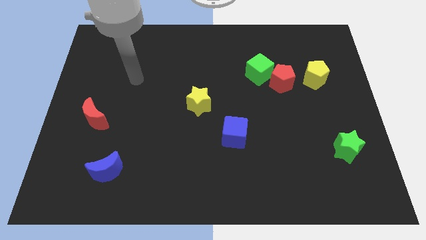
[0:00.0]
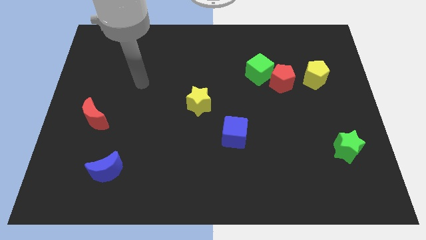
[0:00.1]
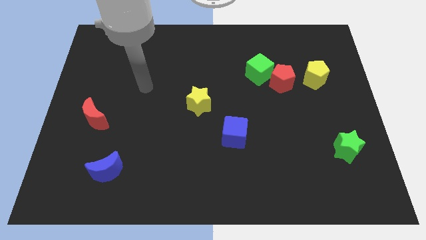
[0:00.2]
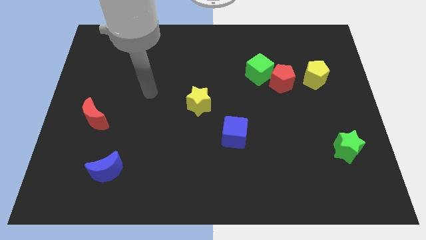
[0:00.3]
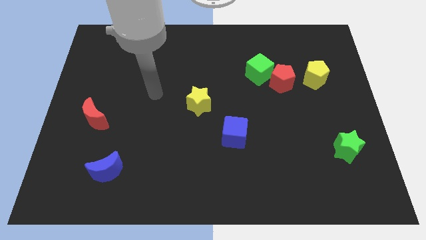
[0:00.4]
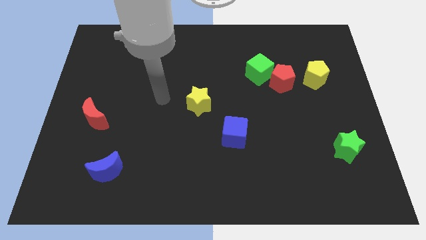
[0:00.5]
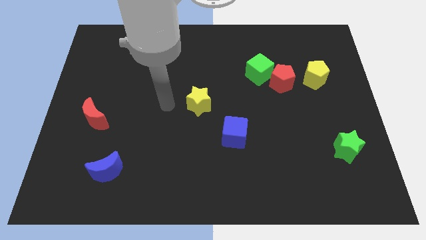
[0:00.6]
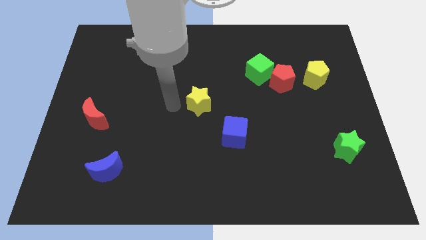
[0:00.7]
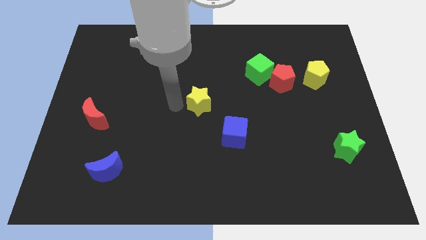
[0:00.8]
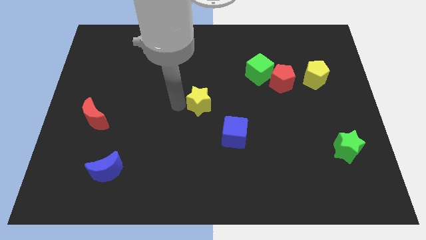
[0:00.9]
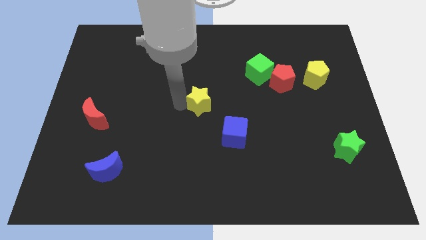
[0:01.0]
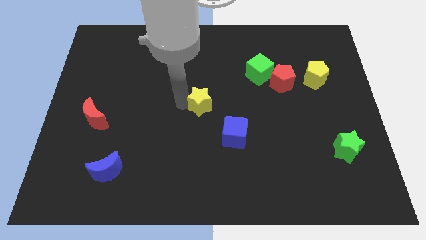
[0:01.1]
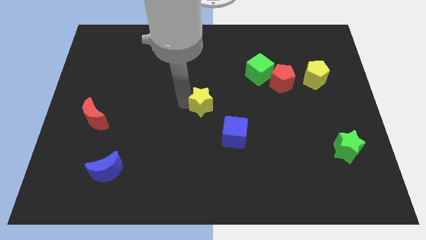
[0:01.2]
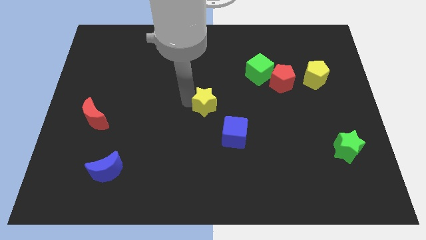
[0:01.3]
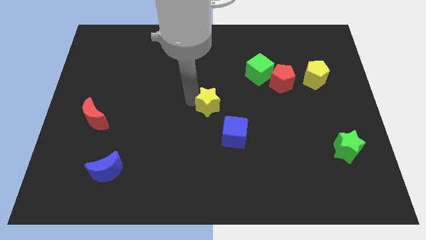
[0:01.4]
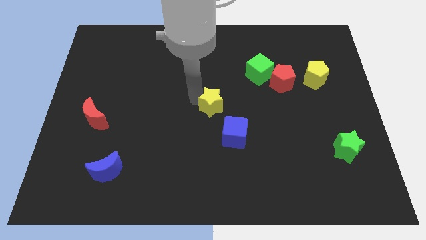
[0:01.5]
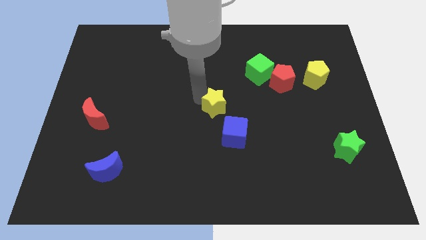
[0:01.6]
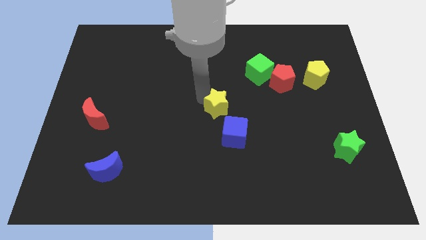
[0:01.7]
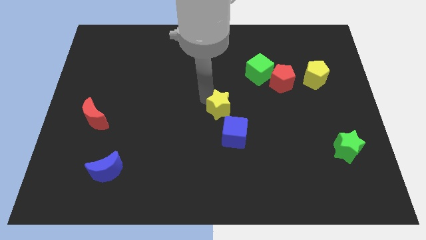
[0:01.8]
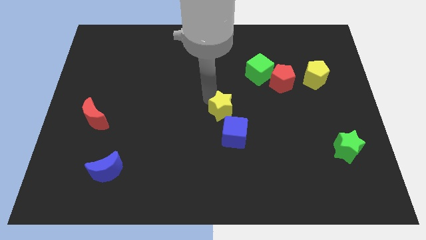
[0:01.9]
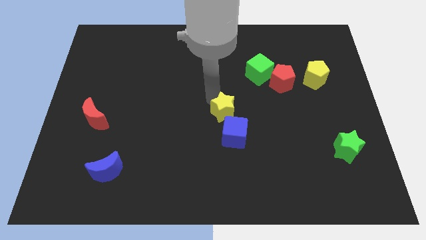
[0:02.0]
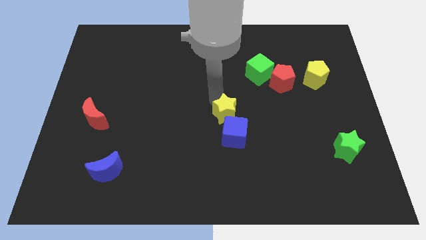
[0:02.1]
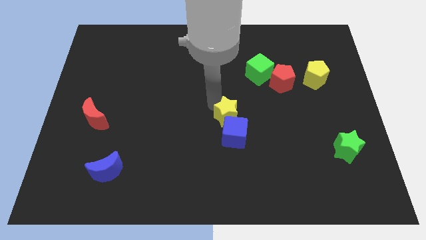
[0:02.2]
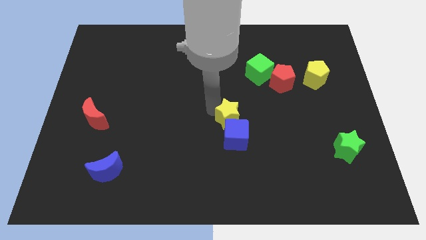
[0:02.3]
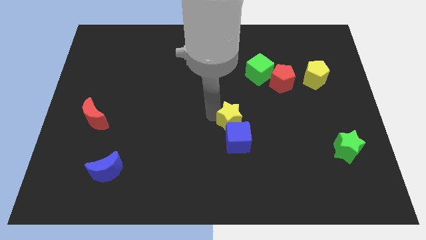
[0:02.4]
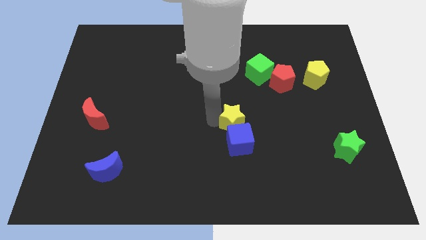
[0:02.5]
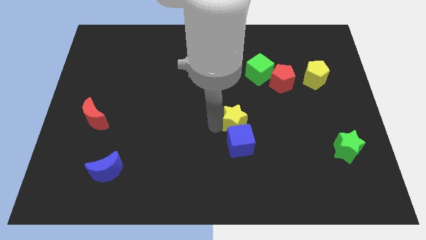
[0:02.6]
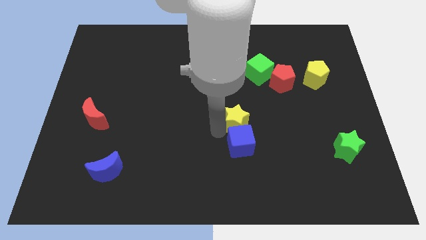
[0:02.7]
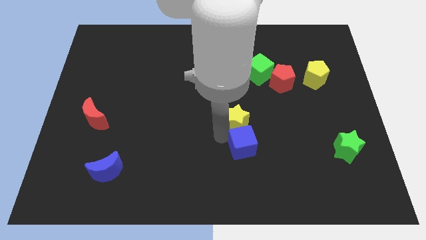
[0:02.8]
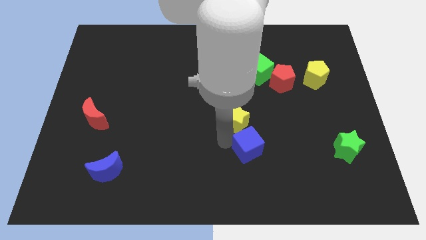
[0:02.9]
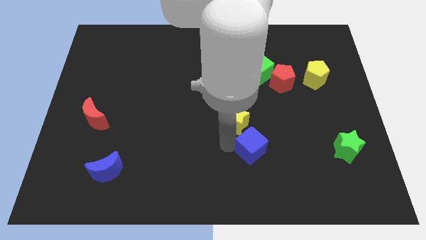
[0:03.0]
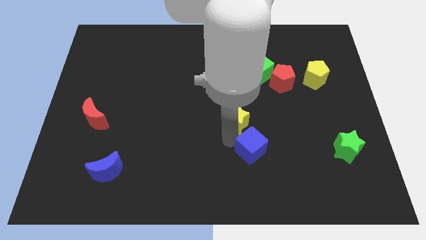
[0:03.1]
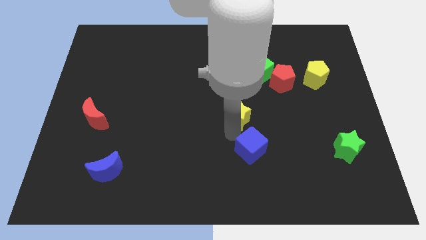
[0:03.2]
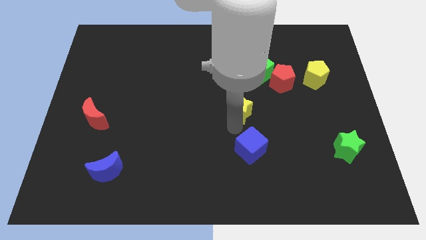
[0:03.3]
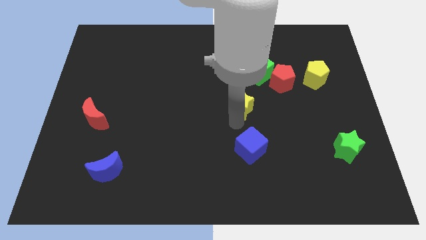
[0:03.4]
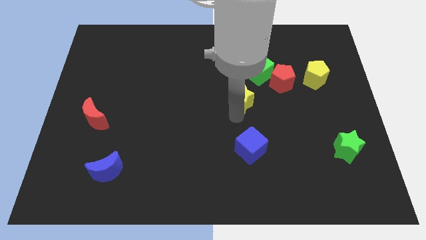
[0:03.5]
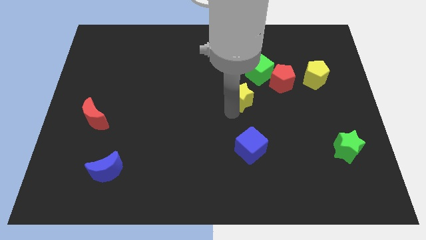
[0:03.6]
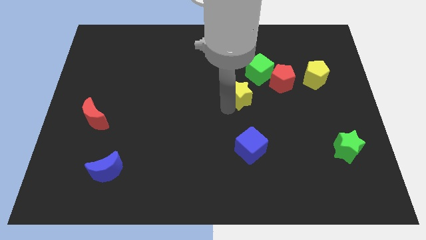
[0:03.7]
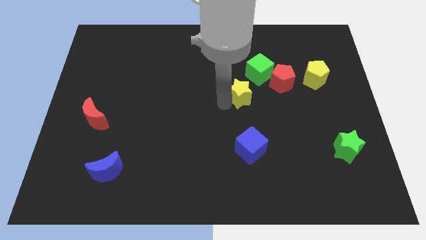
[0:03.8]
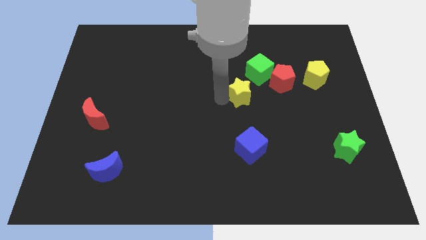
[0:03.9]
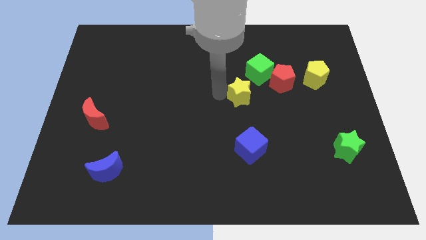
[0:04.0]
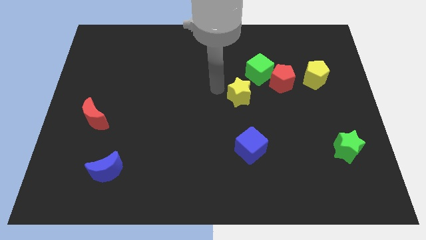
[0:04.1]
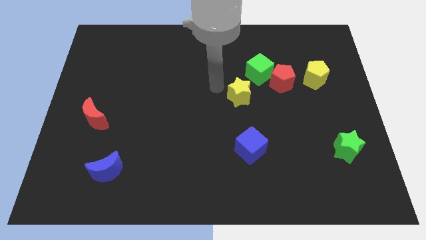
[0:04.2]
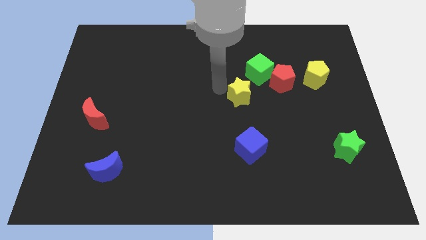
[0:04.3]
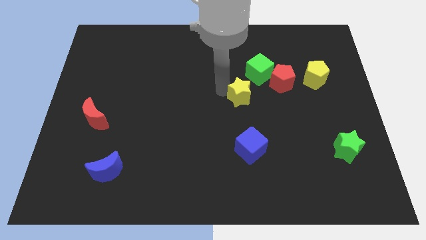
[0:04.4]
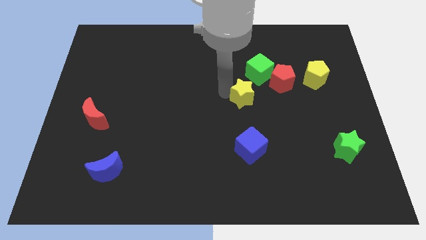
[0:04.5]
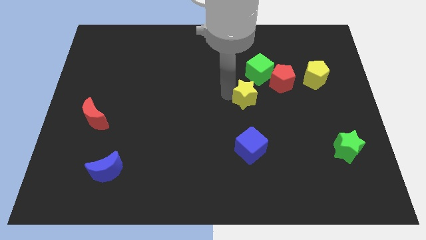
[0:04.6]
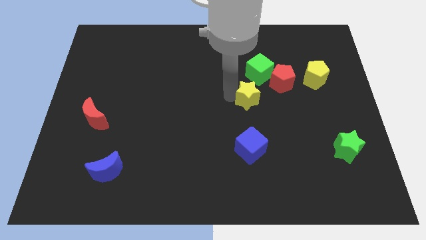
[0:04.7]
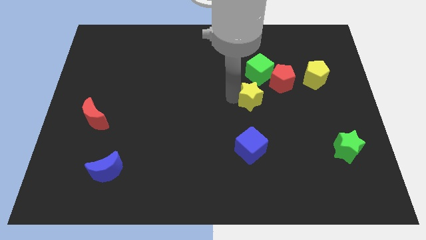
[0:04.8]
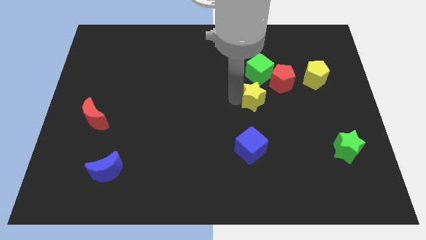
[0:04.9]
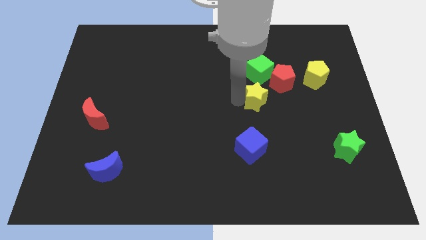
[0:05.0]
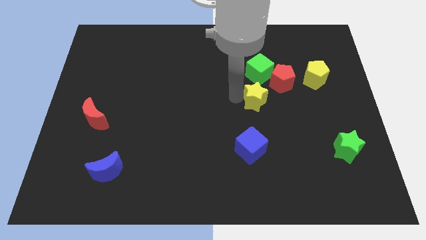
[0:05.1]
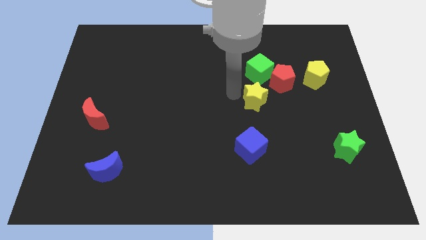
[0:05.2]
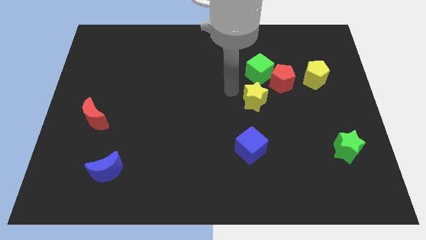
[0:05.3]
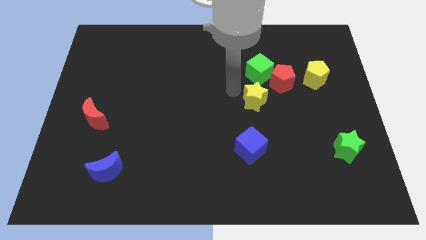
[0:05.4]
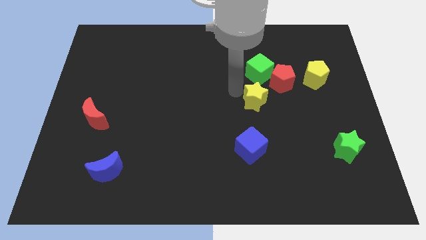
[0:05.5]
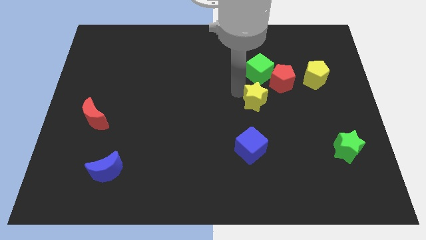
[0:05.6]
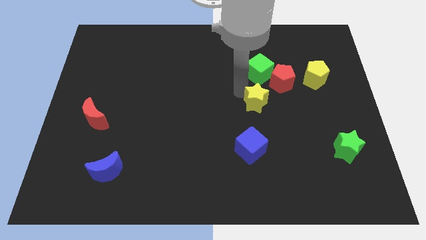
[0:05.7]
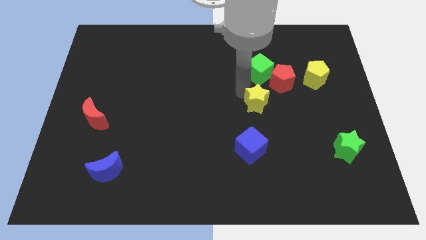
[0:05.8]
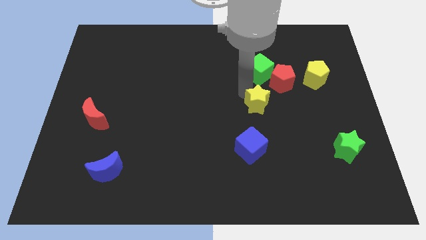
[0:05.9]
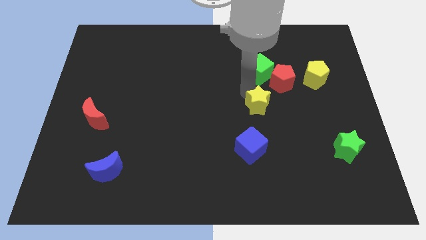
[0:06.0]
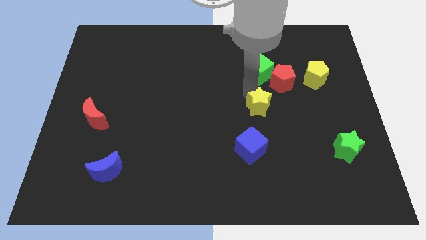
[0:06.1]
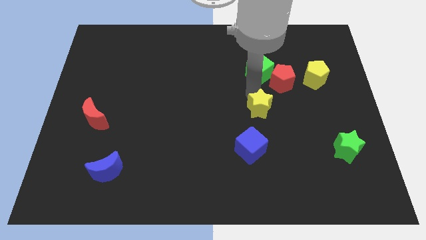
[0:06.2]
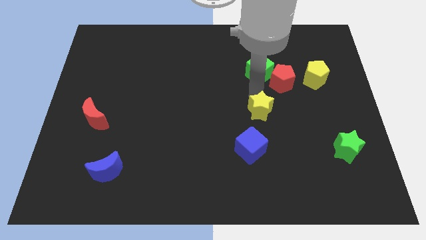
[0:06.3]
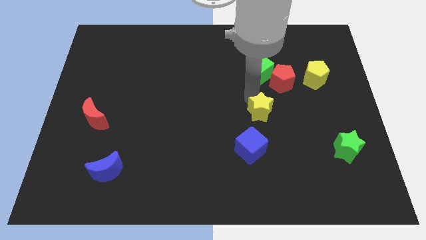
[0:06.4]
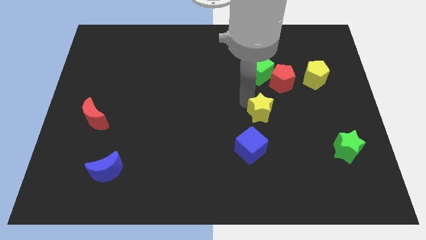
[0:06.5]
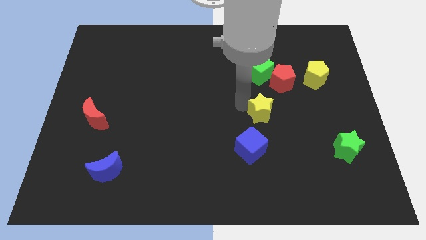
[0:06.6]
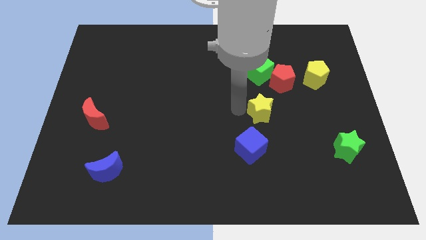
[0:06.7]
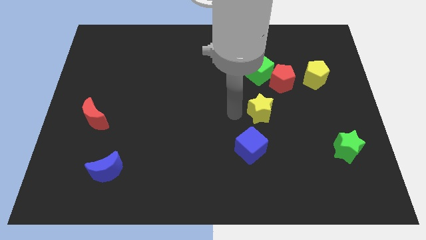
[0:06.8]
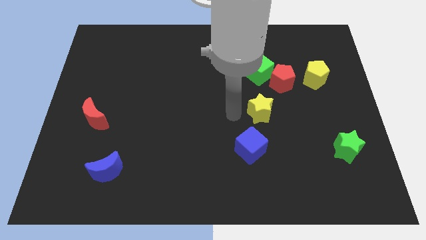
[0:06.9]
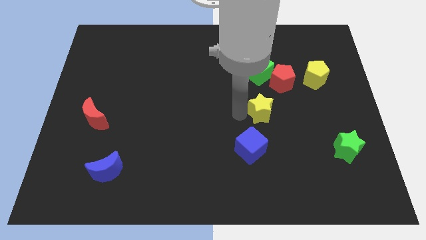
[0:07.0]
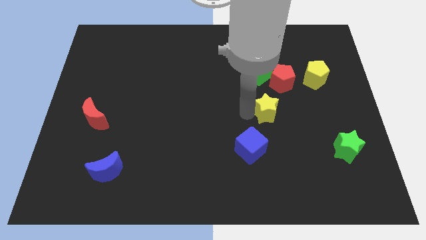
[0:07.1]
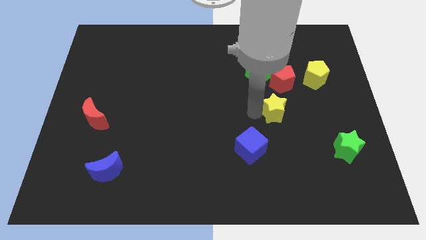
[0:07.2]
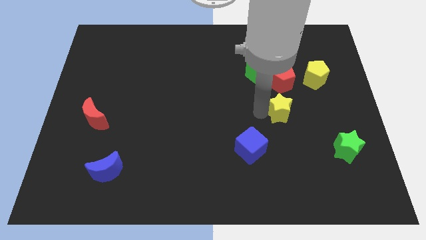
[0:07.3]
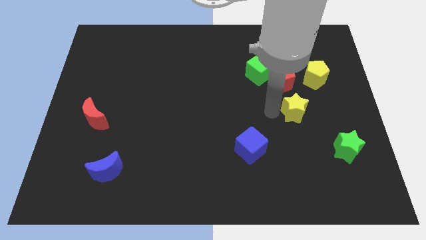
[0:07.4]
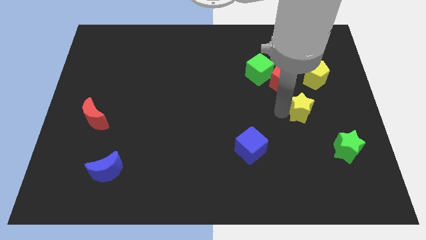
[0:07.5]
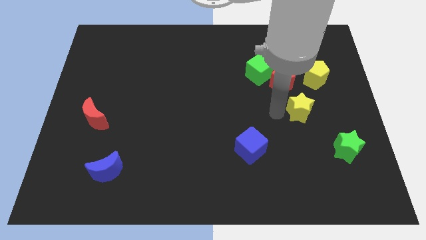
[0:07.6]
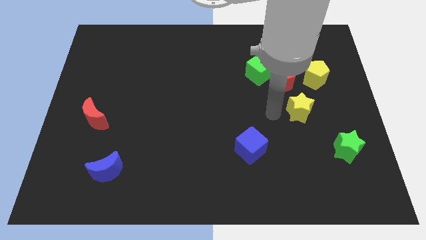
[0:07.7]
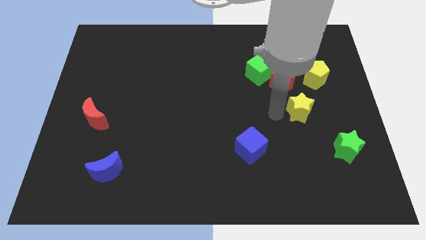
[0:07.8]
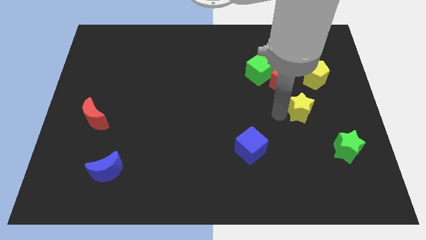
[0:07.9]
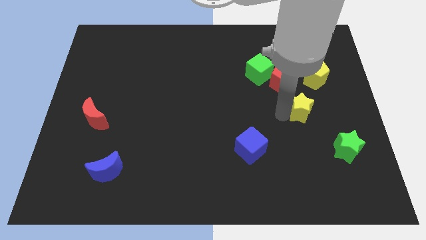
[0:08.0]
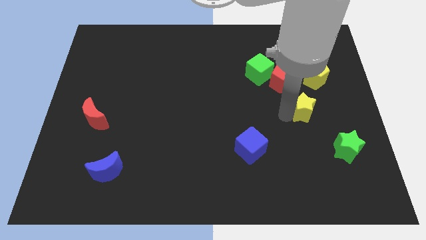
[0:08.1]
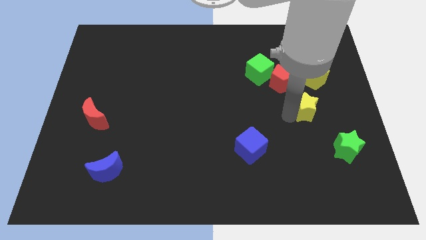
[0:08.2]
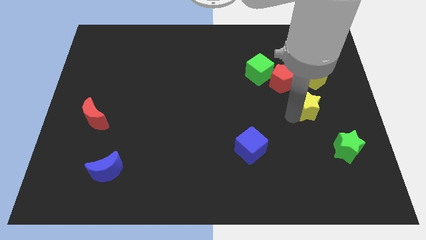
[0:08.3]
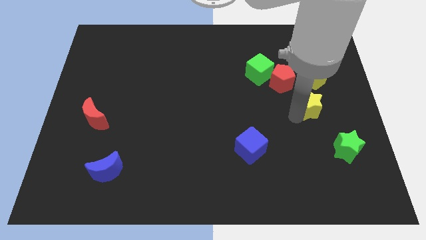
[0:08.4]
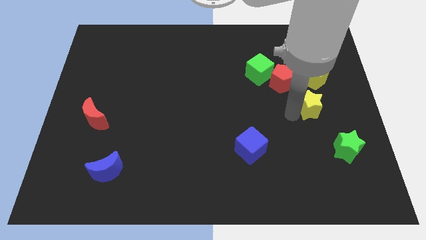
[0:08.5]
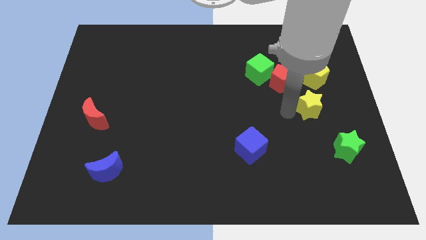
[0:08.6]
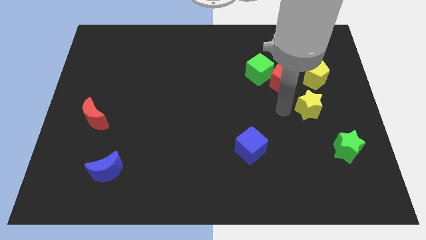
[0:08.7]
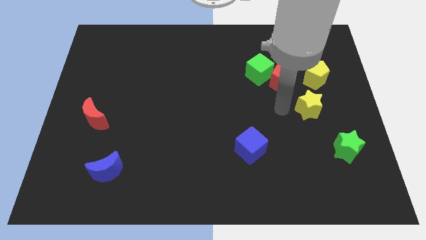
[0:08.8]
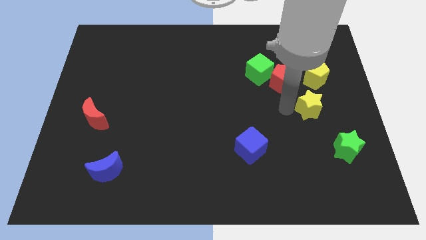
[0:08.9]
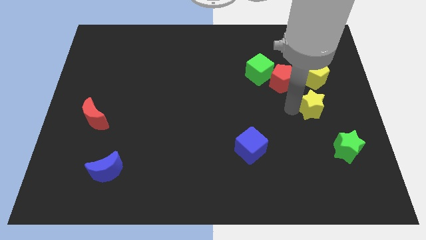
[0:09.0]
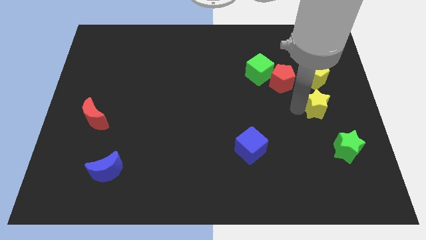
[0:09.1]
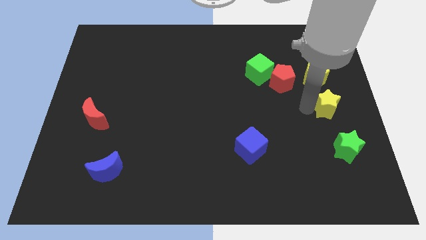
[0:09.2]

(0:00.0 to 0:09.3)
slide the yellow star to the right side of the board
